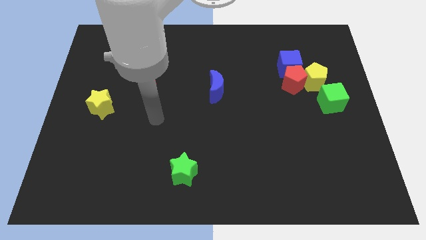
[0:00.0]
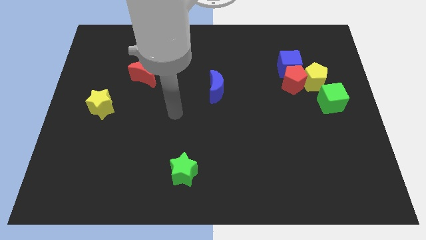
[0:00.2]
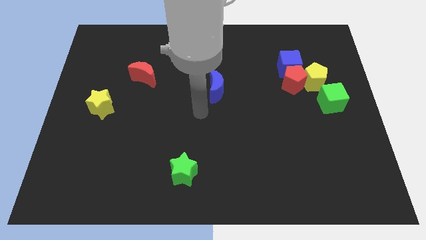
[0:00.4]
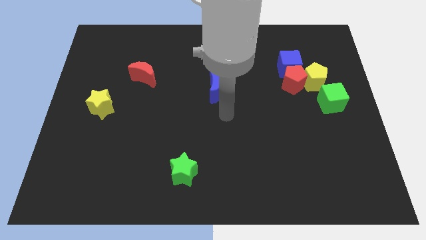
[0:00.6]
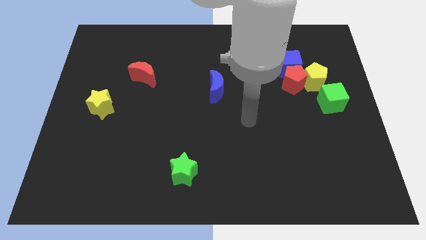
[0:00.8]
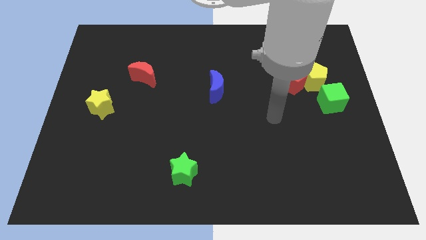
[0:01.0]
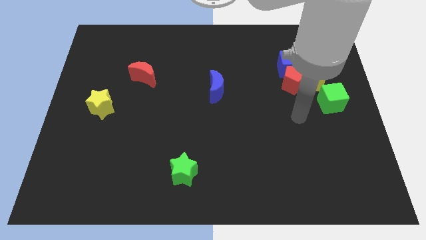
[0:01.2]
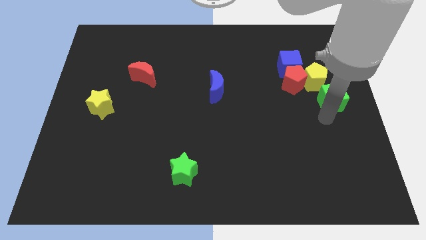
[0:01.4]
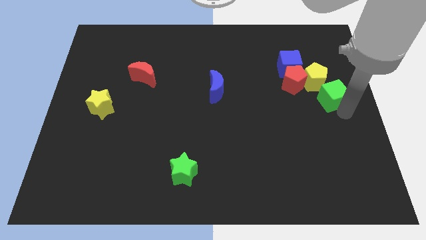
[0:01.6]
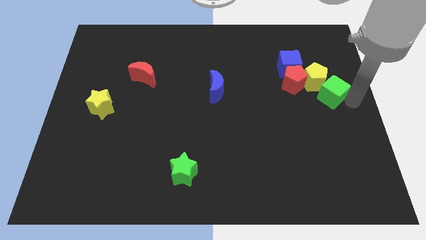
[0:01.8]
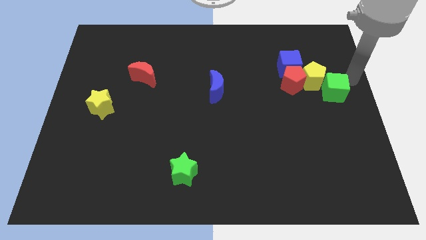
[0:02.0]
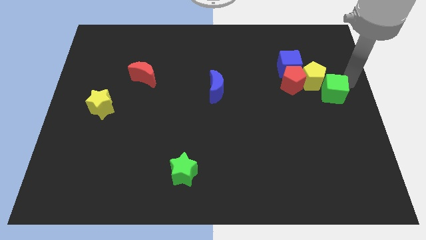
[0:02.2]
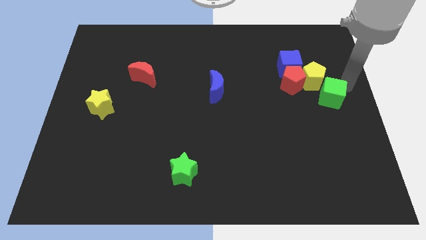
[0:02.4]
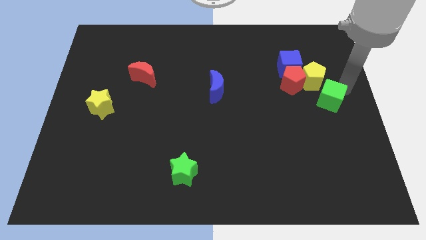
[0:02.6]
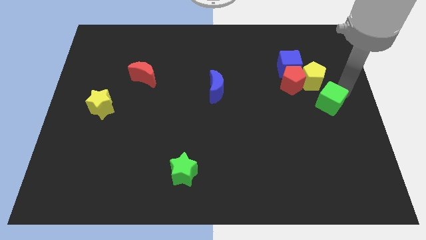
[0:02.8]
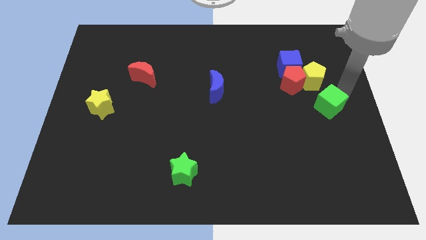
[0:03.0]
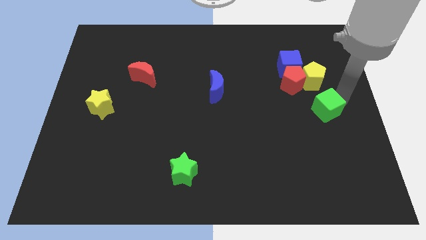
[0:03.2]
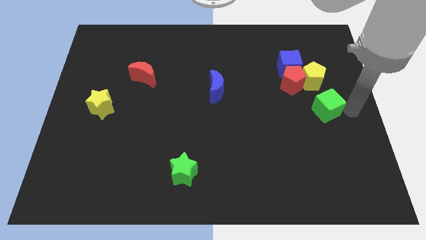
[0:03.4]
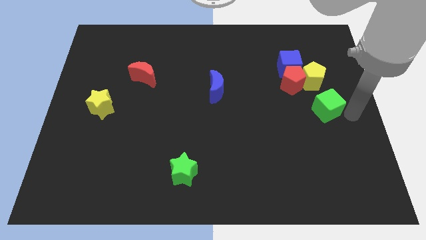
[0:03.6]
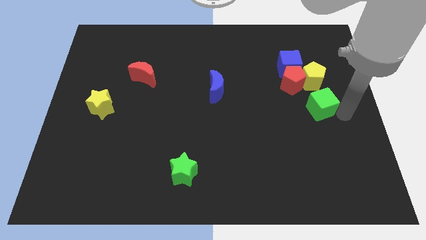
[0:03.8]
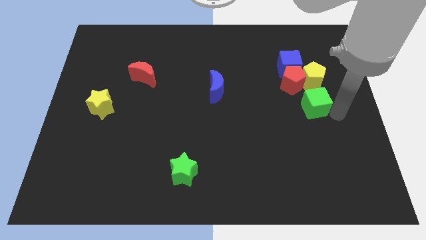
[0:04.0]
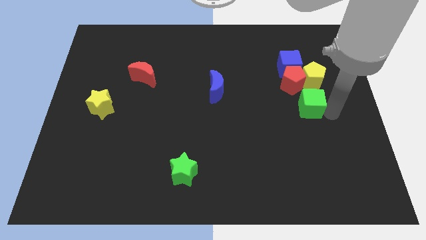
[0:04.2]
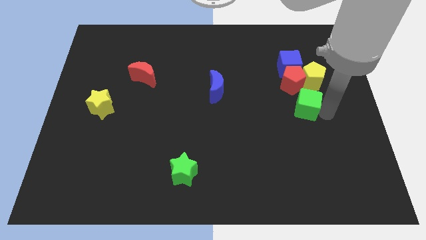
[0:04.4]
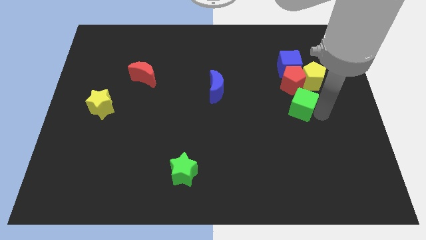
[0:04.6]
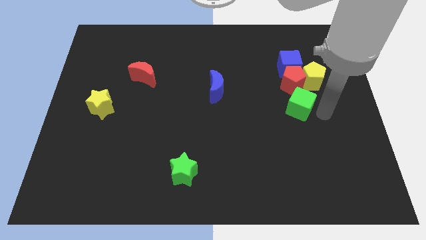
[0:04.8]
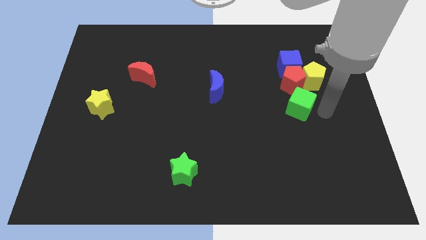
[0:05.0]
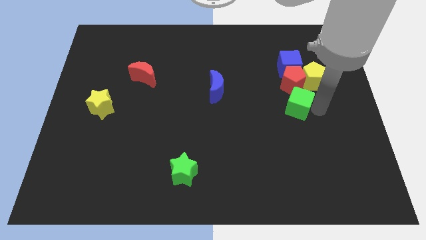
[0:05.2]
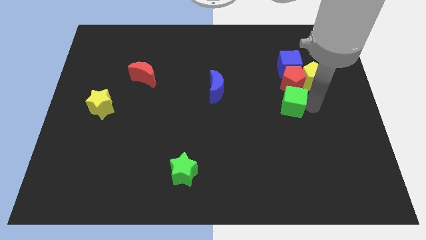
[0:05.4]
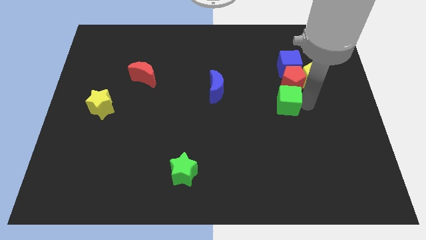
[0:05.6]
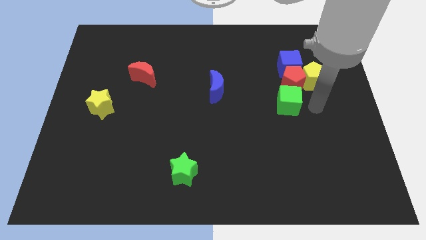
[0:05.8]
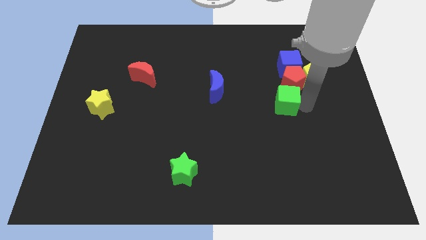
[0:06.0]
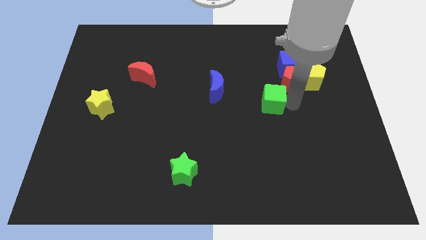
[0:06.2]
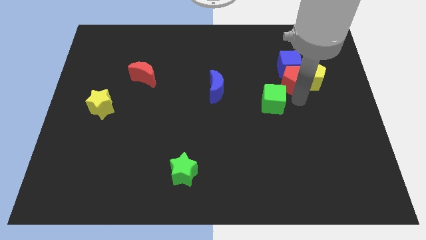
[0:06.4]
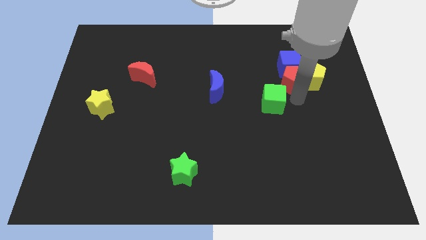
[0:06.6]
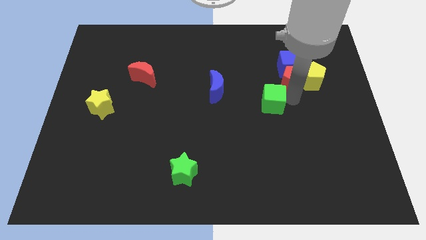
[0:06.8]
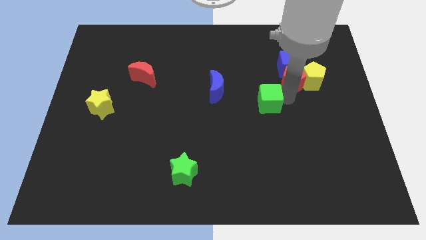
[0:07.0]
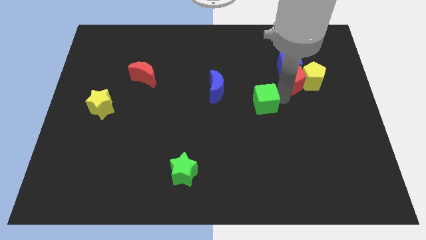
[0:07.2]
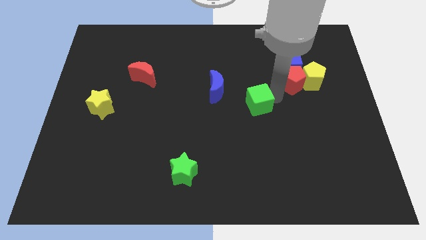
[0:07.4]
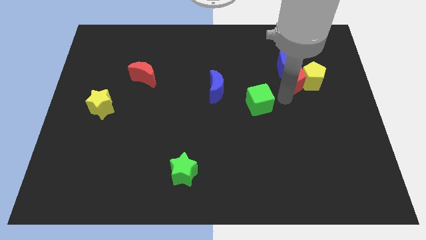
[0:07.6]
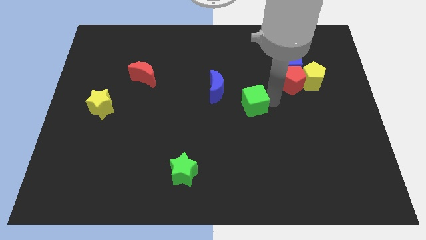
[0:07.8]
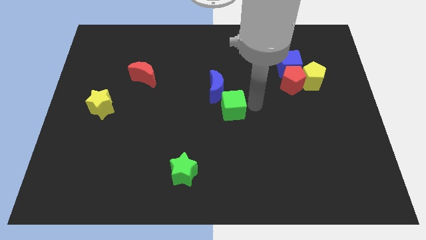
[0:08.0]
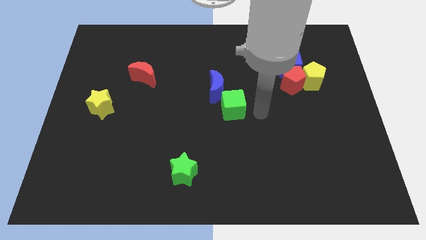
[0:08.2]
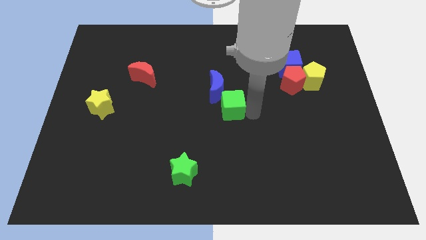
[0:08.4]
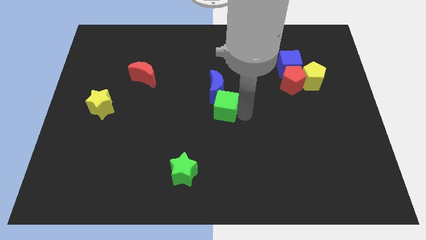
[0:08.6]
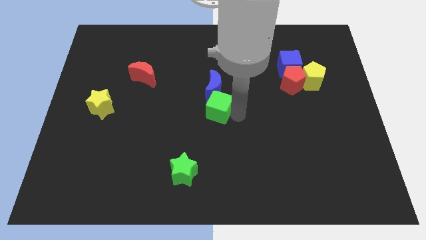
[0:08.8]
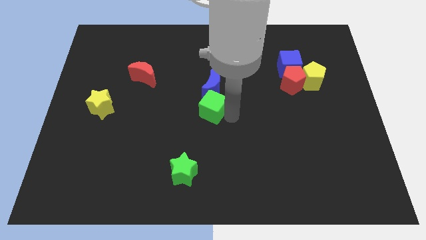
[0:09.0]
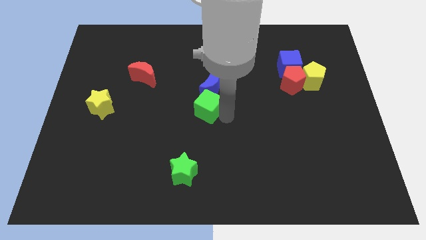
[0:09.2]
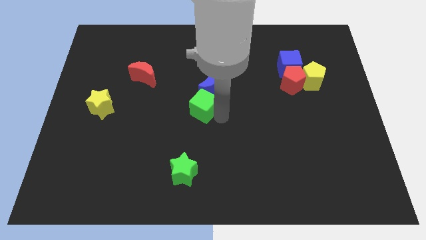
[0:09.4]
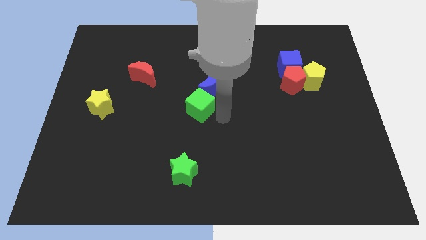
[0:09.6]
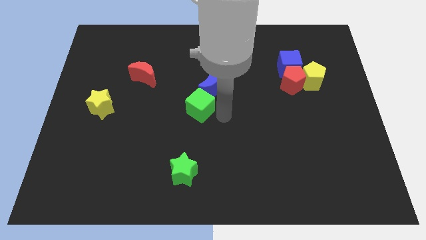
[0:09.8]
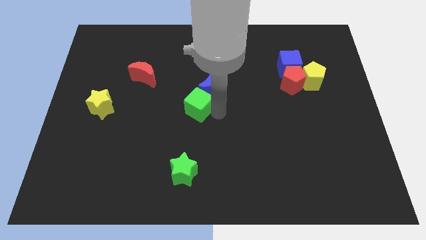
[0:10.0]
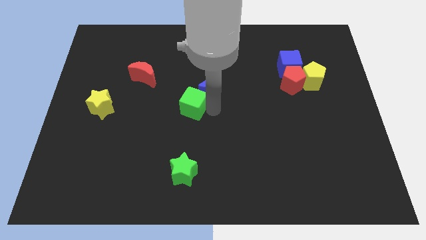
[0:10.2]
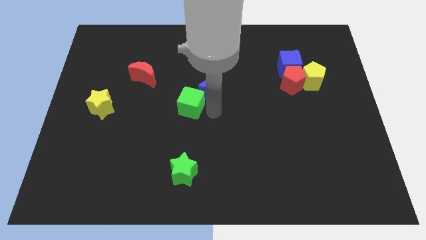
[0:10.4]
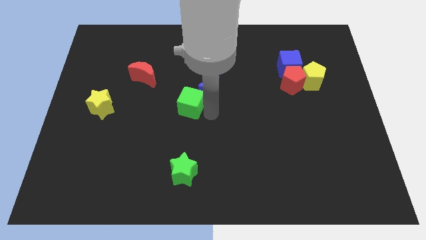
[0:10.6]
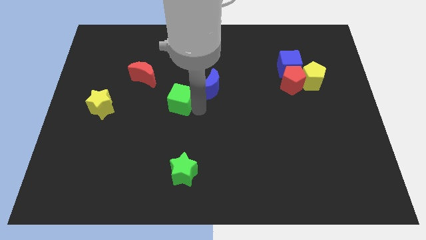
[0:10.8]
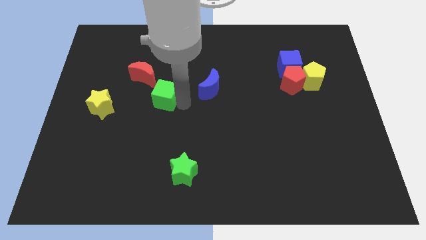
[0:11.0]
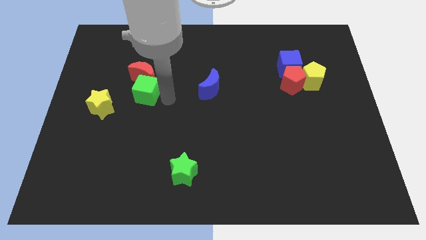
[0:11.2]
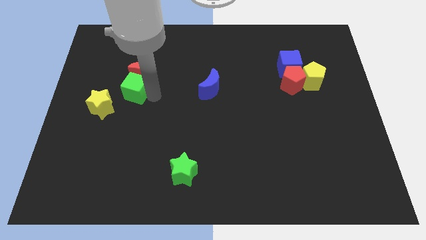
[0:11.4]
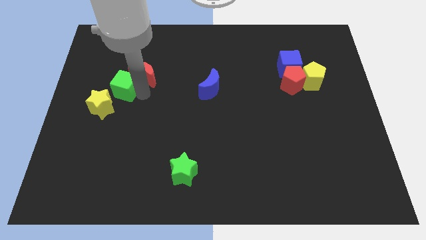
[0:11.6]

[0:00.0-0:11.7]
push the green cube above the yellow star

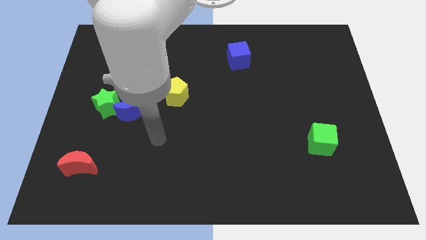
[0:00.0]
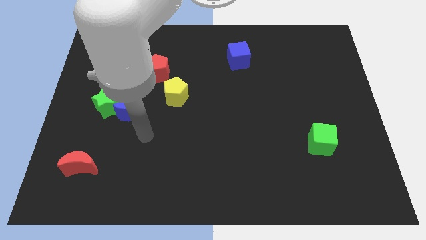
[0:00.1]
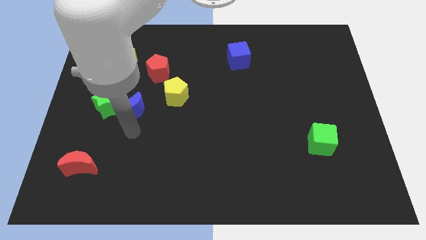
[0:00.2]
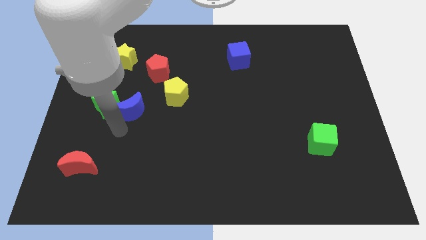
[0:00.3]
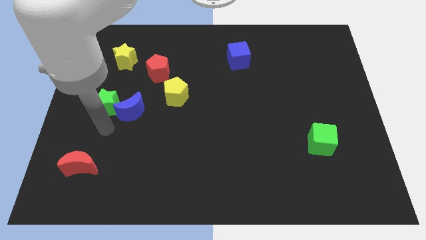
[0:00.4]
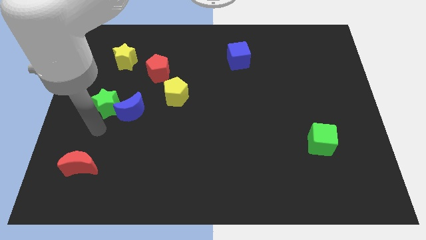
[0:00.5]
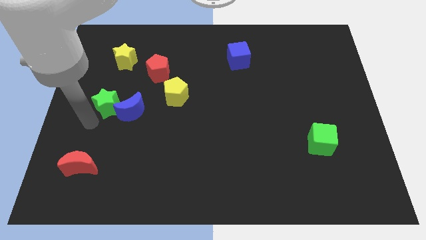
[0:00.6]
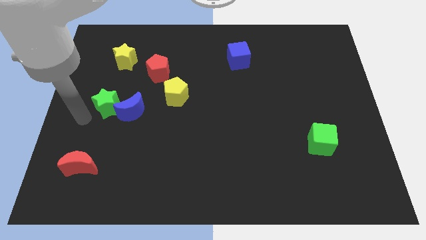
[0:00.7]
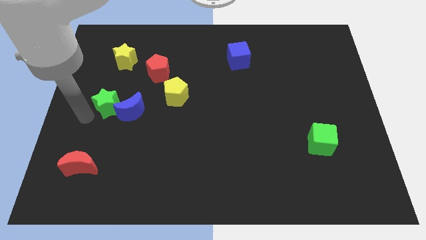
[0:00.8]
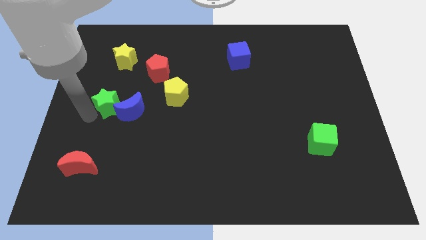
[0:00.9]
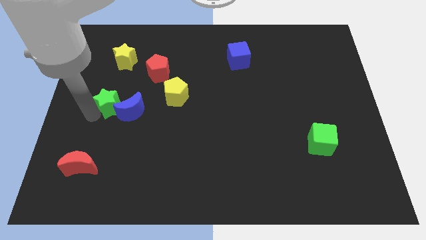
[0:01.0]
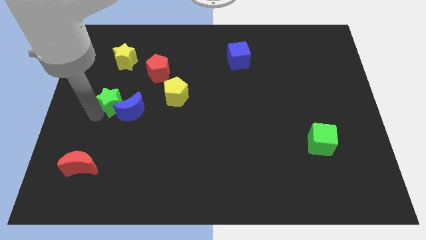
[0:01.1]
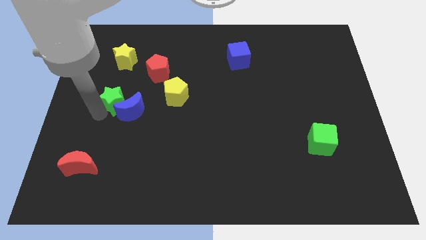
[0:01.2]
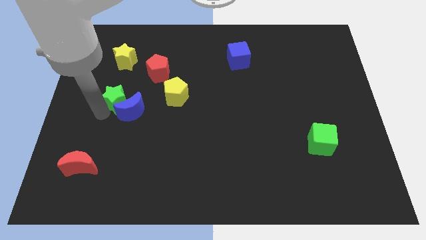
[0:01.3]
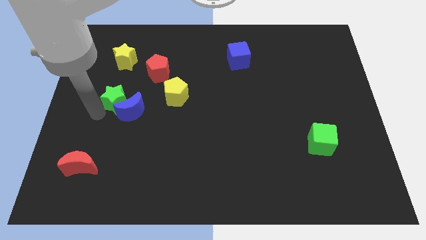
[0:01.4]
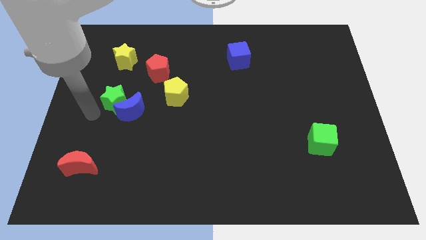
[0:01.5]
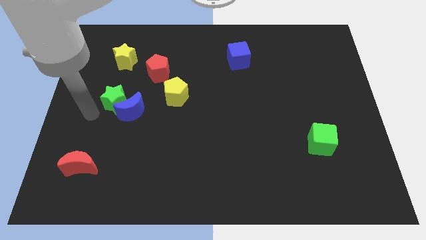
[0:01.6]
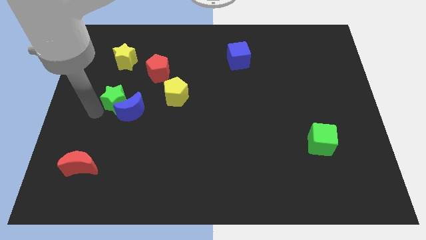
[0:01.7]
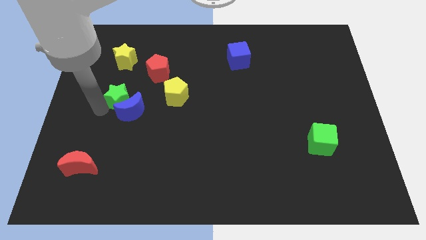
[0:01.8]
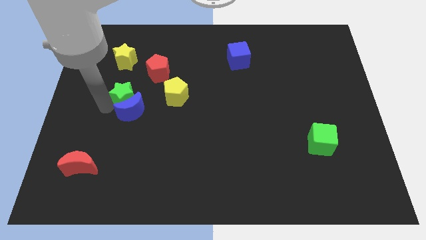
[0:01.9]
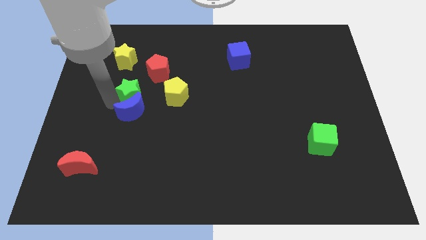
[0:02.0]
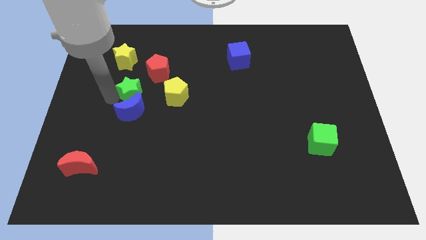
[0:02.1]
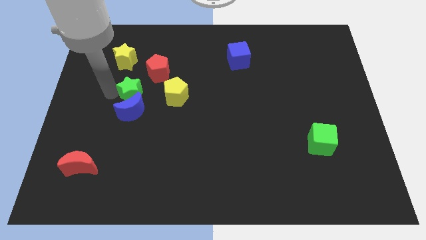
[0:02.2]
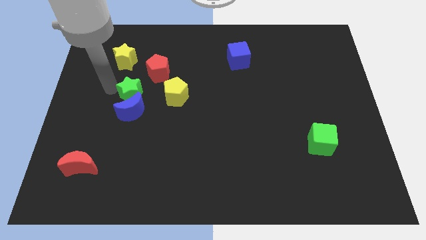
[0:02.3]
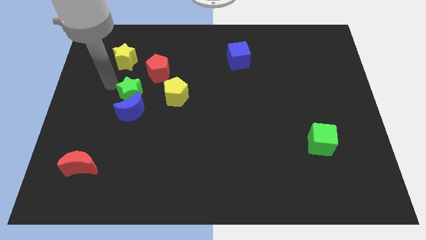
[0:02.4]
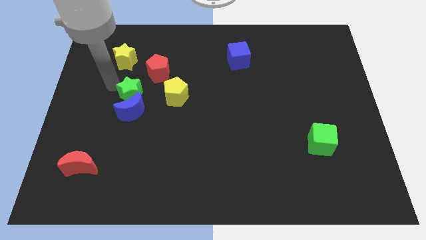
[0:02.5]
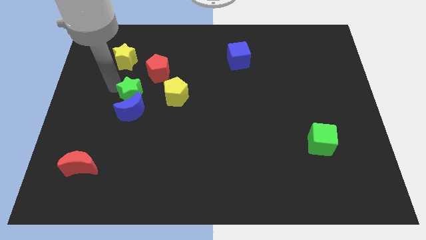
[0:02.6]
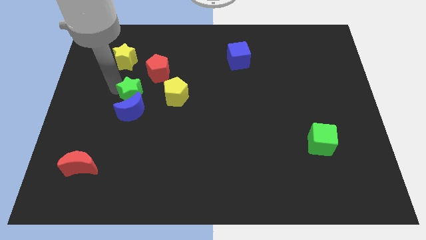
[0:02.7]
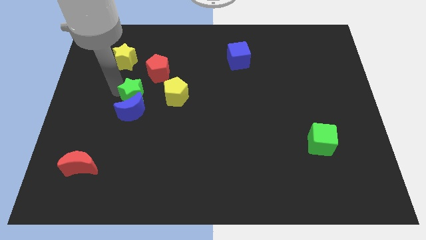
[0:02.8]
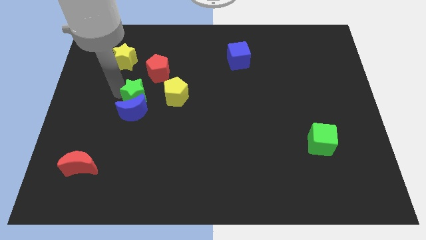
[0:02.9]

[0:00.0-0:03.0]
put the green star to the bottom of the red pentagon
